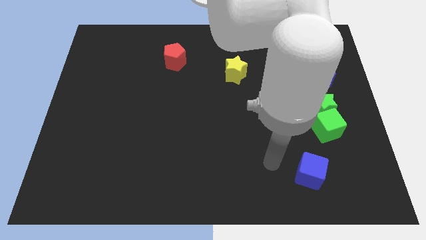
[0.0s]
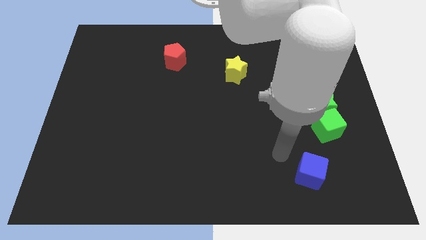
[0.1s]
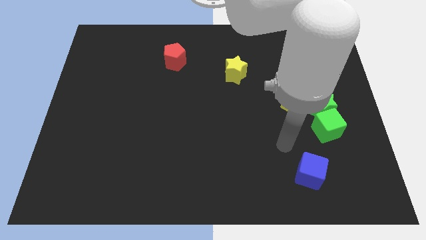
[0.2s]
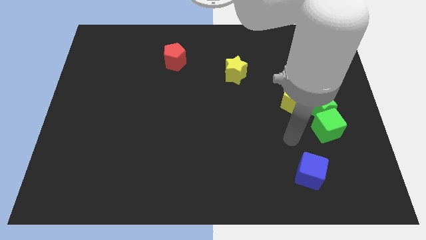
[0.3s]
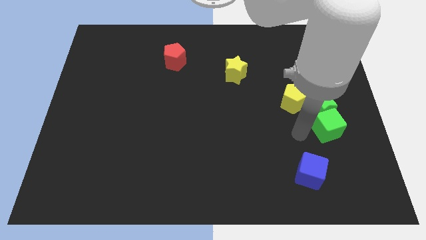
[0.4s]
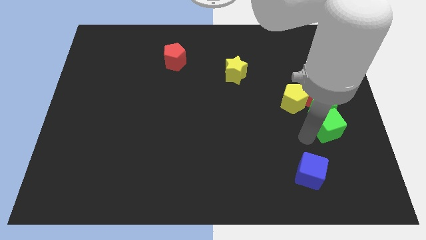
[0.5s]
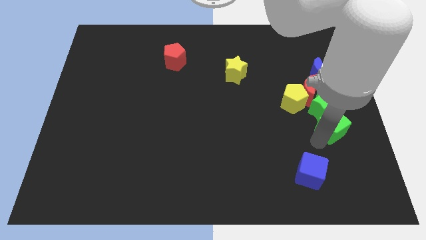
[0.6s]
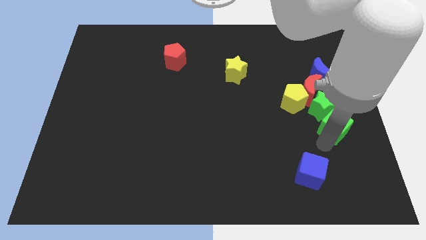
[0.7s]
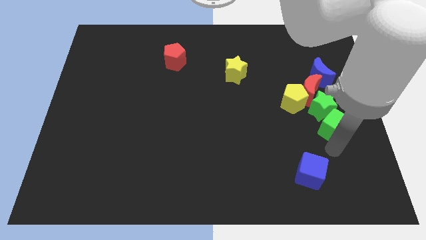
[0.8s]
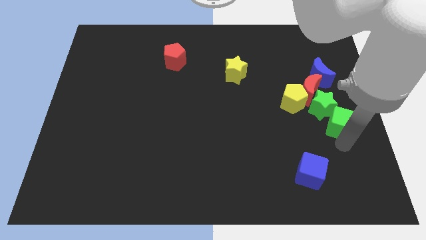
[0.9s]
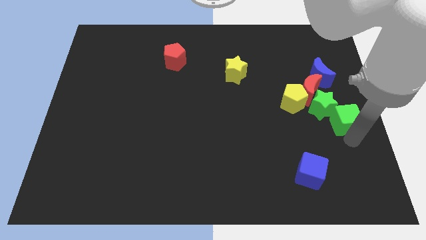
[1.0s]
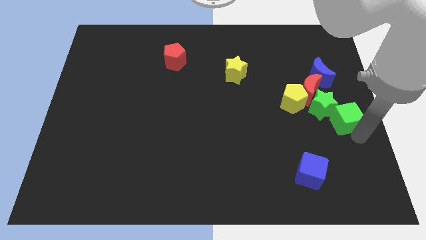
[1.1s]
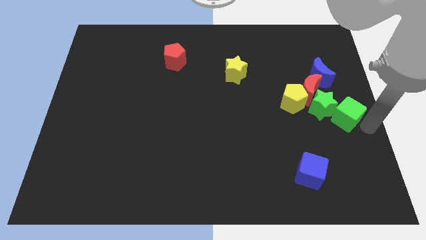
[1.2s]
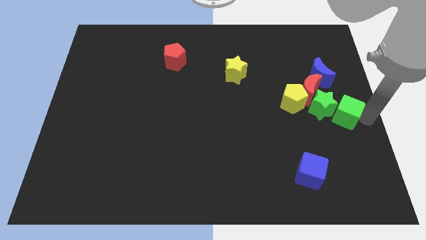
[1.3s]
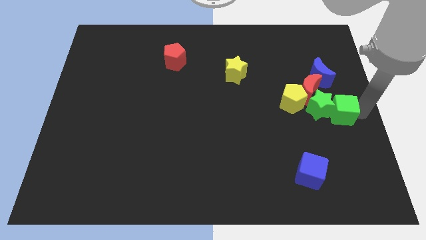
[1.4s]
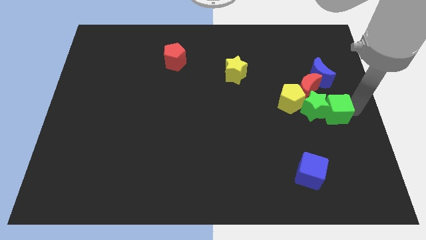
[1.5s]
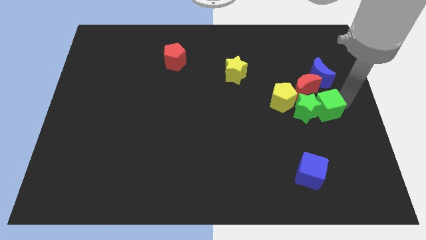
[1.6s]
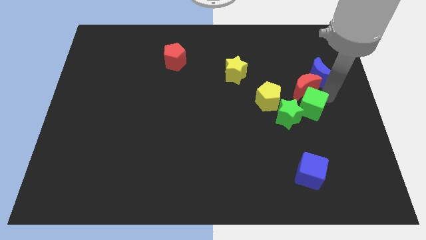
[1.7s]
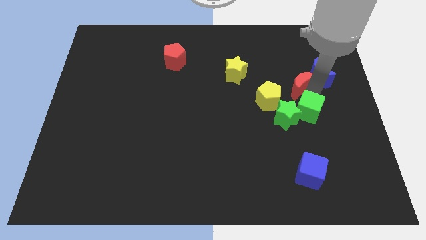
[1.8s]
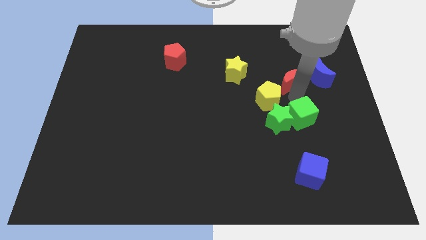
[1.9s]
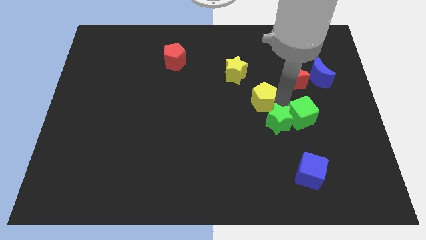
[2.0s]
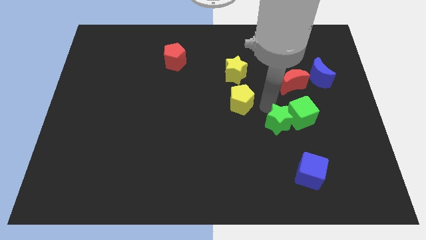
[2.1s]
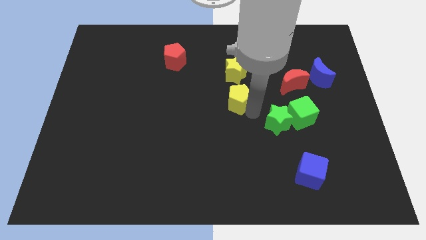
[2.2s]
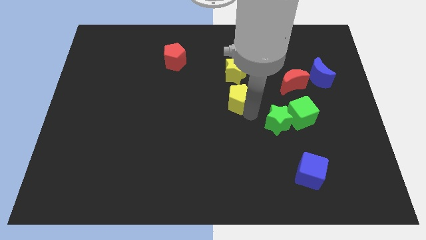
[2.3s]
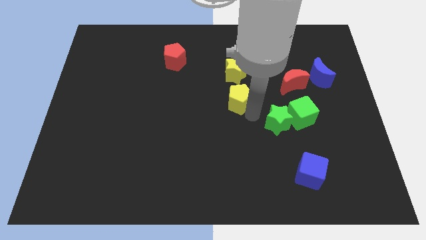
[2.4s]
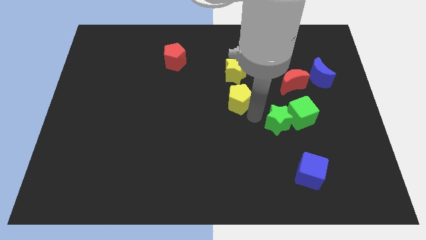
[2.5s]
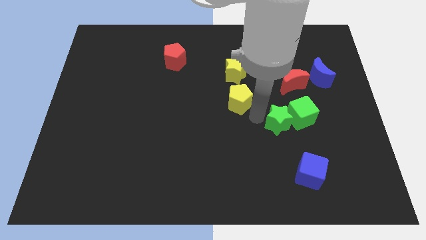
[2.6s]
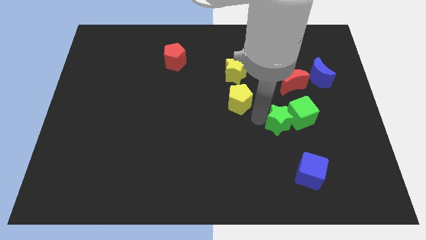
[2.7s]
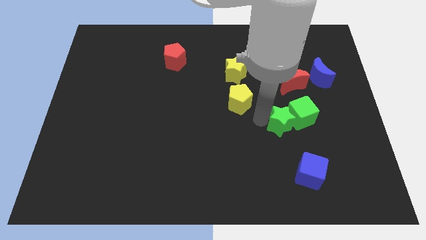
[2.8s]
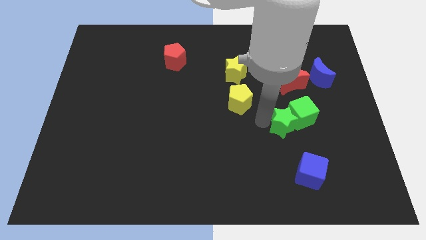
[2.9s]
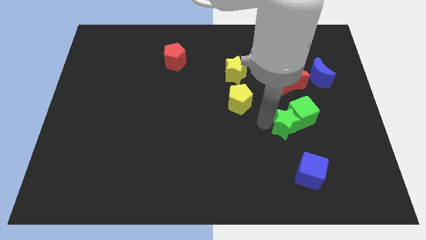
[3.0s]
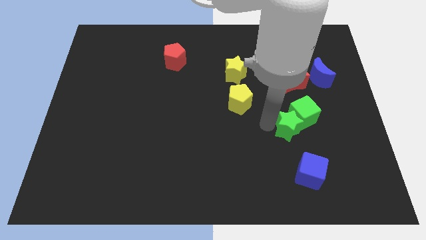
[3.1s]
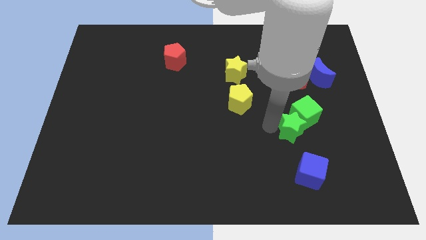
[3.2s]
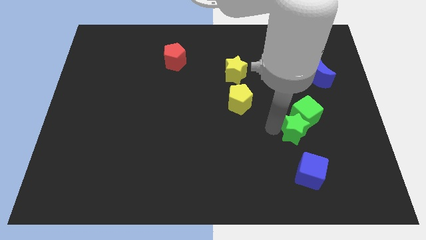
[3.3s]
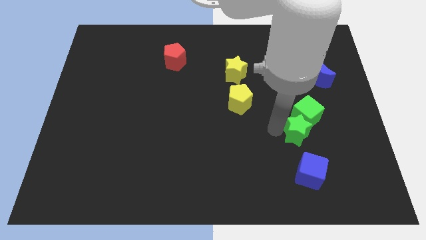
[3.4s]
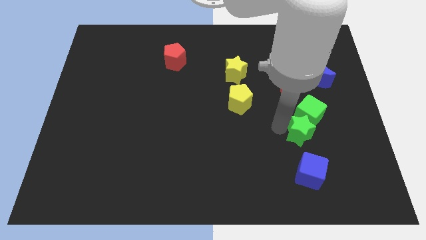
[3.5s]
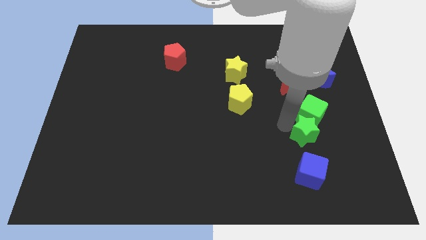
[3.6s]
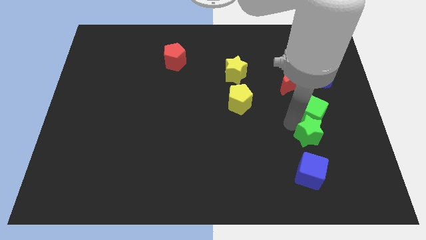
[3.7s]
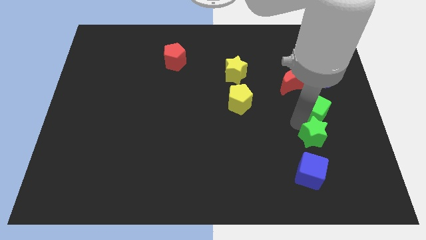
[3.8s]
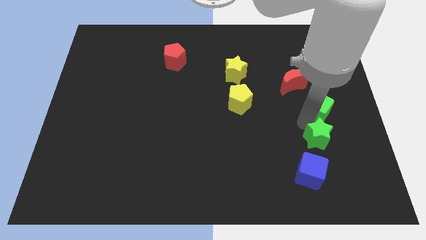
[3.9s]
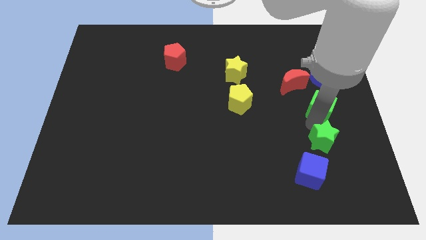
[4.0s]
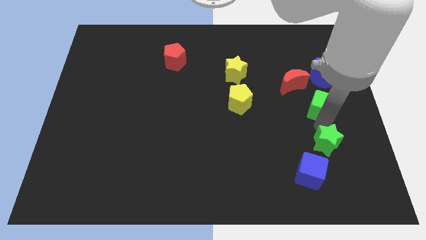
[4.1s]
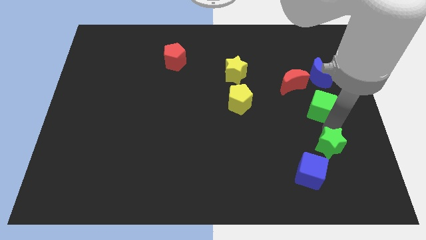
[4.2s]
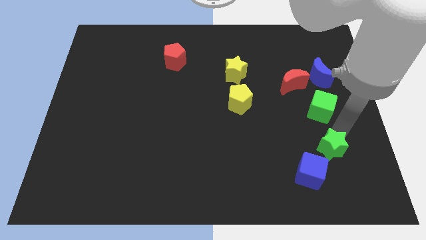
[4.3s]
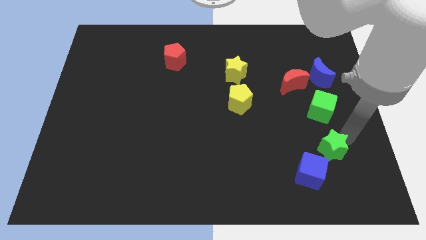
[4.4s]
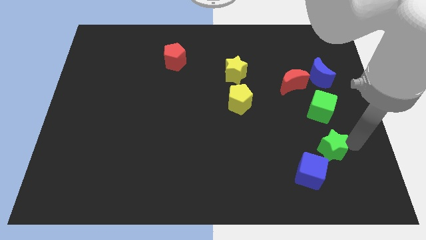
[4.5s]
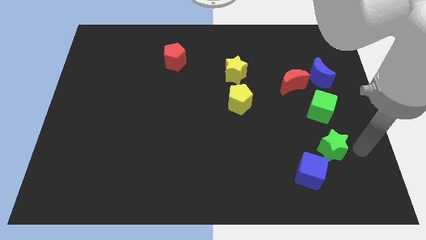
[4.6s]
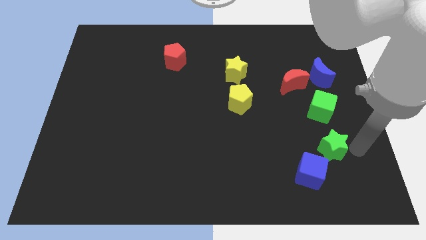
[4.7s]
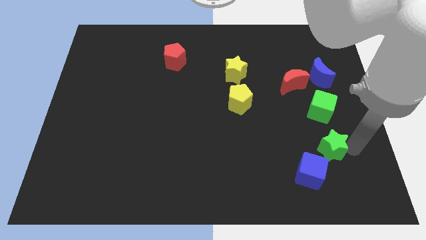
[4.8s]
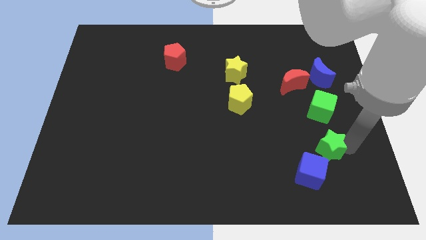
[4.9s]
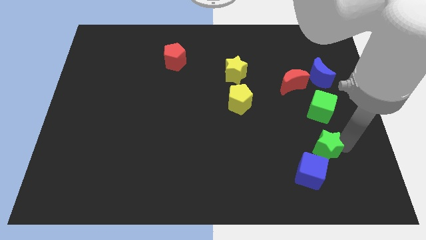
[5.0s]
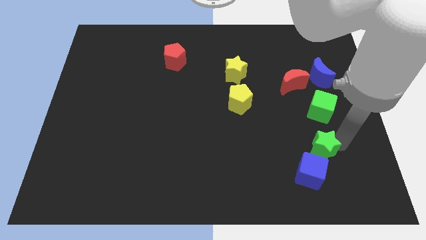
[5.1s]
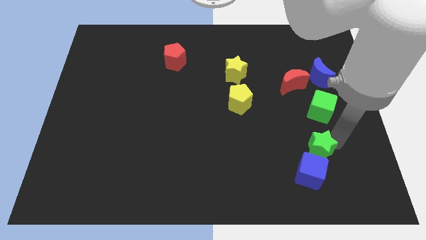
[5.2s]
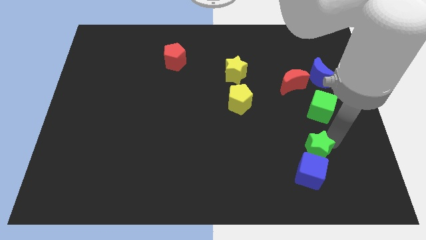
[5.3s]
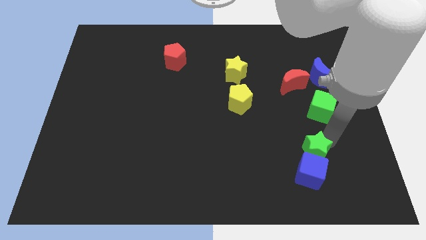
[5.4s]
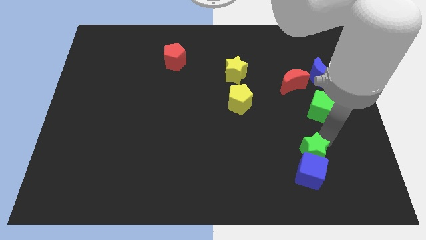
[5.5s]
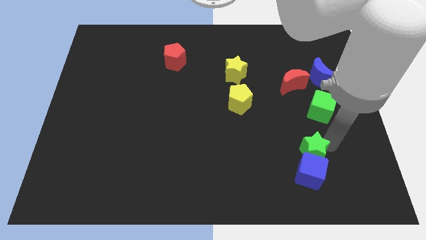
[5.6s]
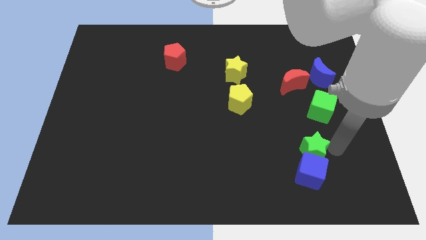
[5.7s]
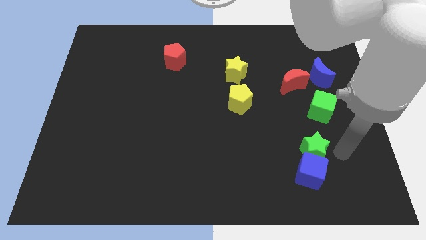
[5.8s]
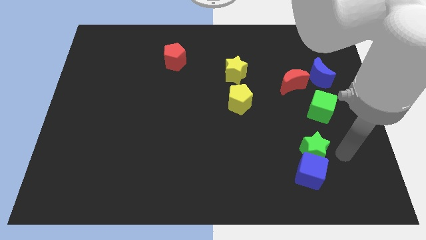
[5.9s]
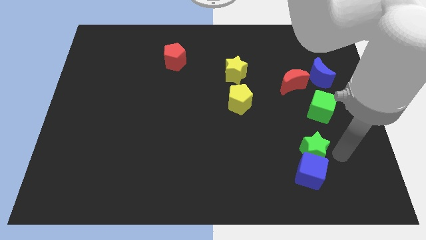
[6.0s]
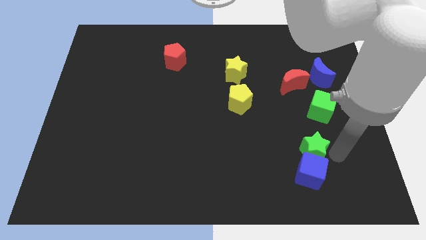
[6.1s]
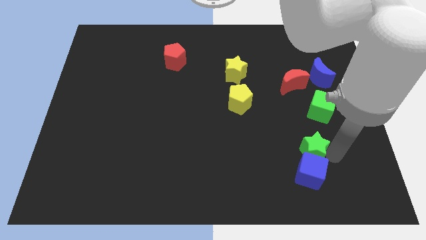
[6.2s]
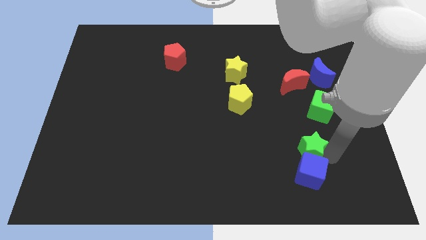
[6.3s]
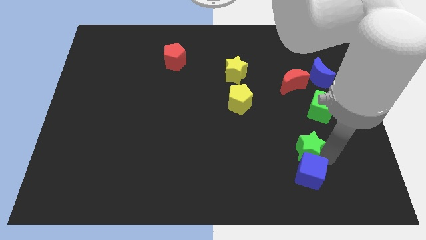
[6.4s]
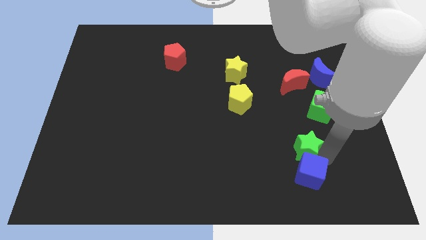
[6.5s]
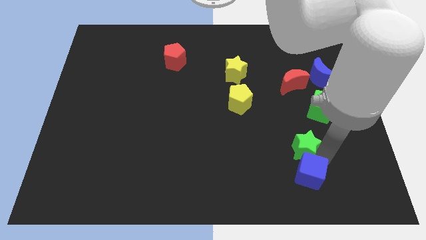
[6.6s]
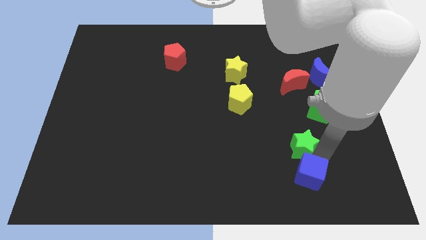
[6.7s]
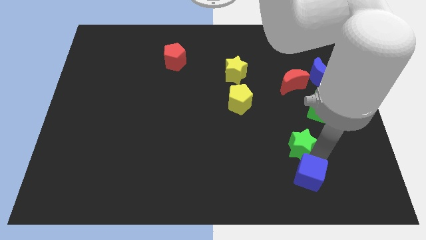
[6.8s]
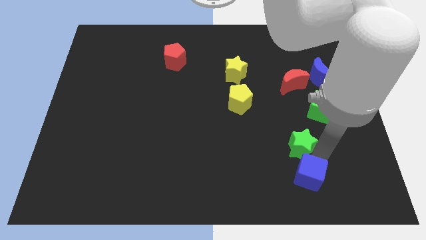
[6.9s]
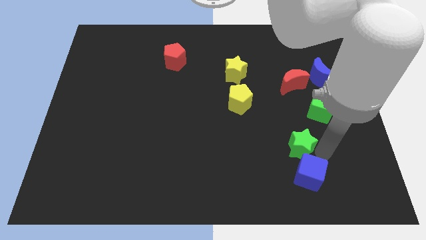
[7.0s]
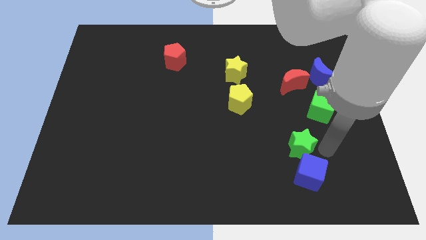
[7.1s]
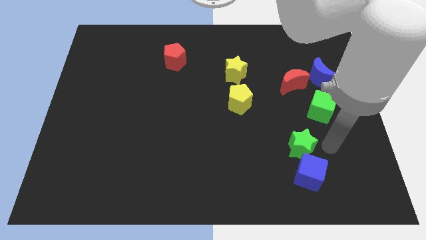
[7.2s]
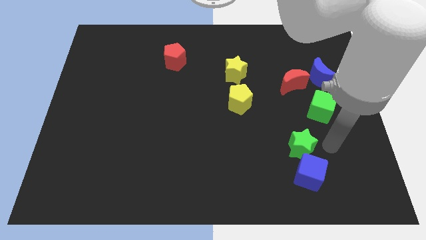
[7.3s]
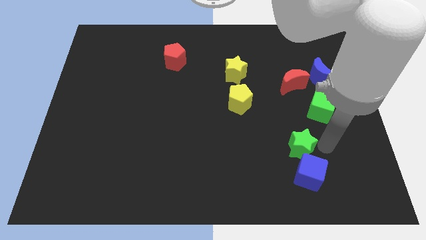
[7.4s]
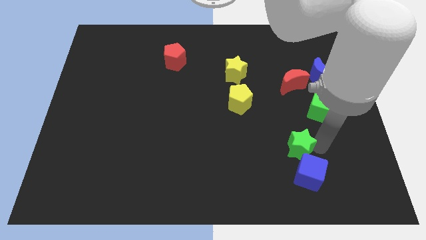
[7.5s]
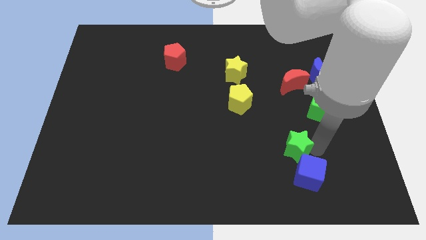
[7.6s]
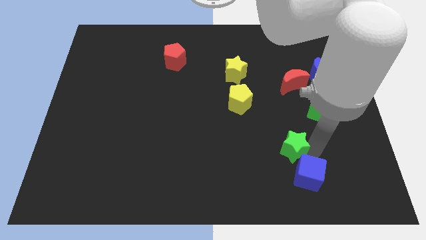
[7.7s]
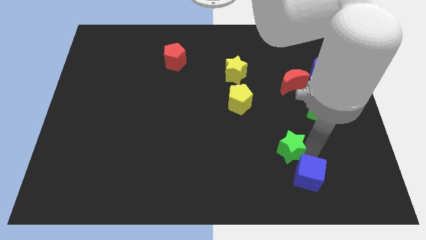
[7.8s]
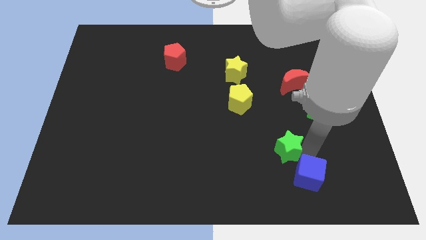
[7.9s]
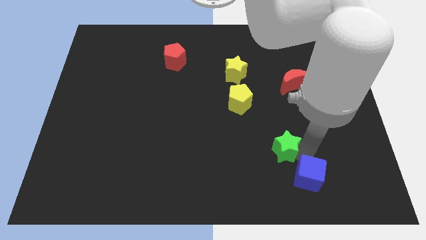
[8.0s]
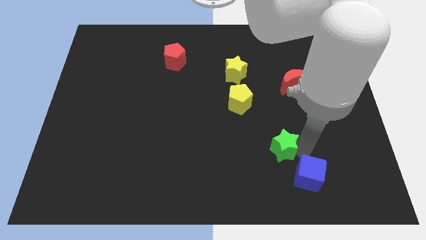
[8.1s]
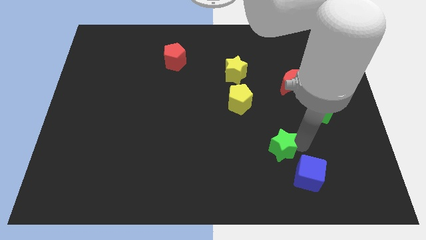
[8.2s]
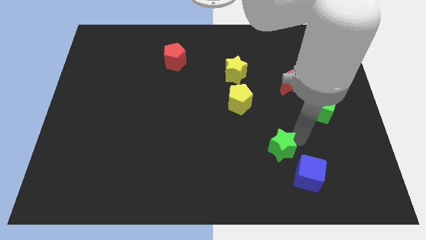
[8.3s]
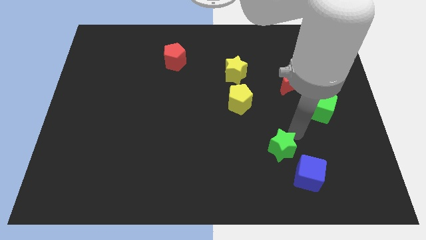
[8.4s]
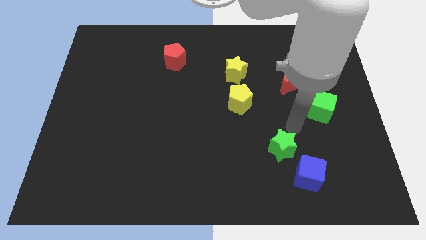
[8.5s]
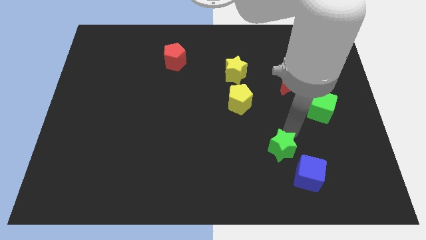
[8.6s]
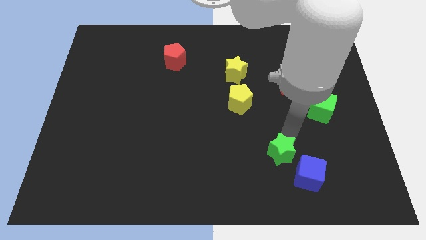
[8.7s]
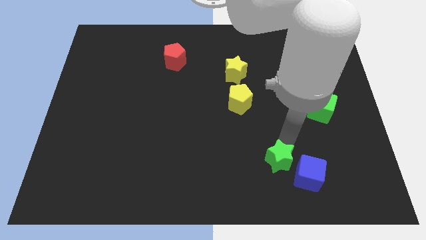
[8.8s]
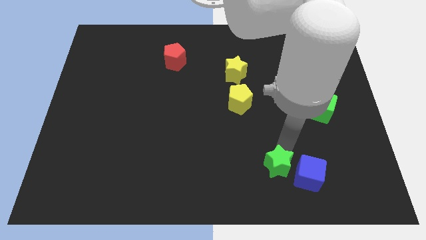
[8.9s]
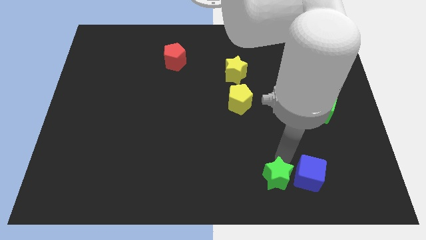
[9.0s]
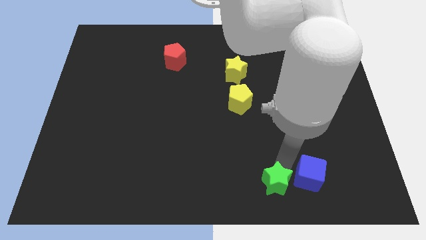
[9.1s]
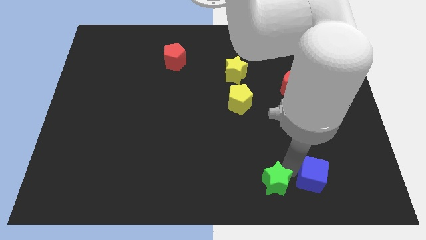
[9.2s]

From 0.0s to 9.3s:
move the green star to the bottom side
